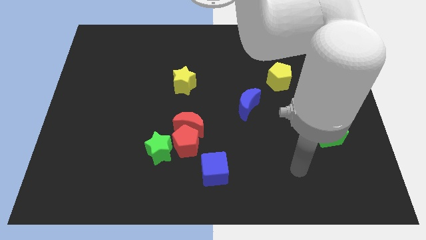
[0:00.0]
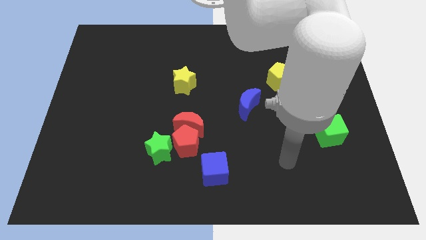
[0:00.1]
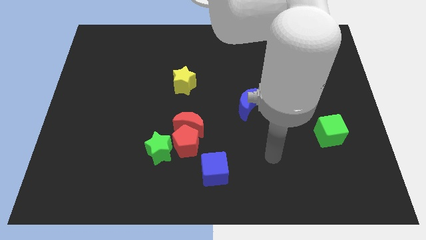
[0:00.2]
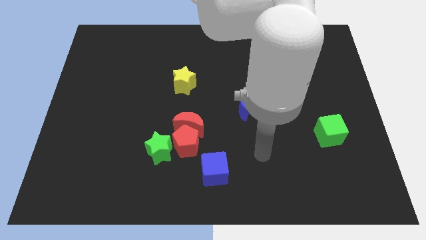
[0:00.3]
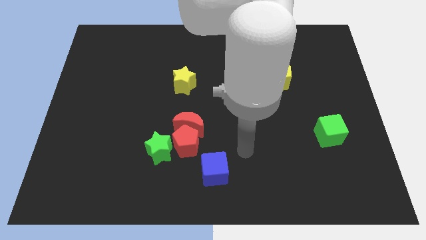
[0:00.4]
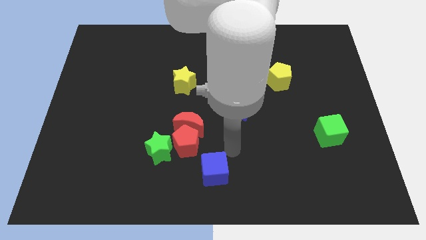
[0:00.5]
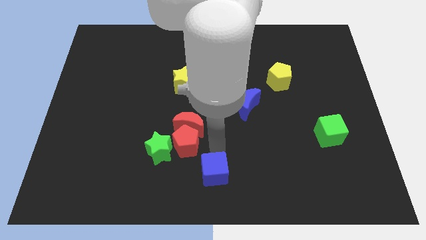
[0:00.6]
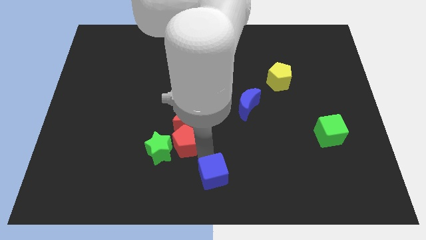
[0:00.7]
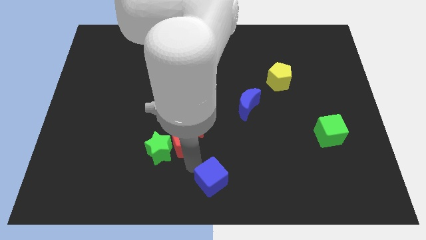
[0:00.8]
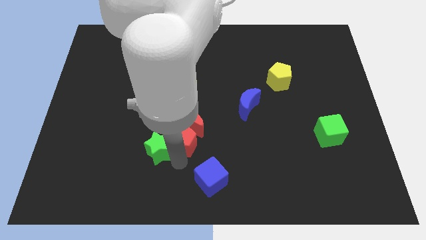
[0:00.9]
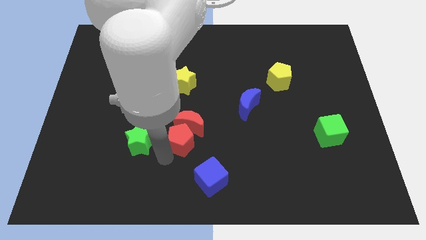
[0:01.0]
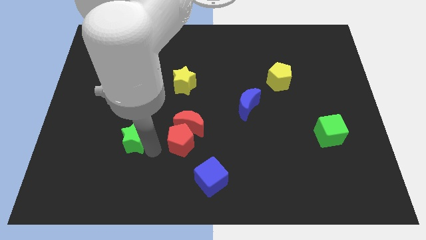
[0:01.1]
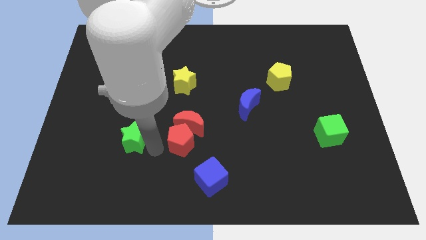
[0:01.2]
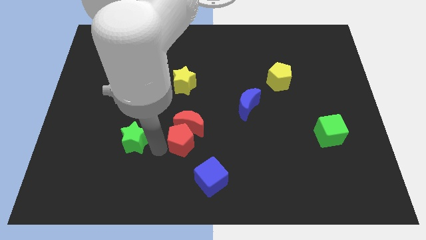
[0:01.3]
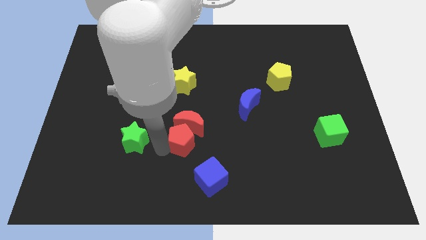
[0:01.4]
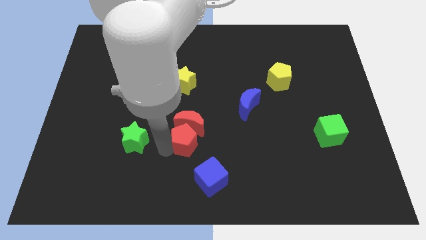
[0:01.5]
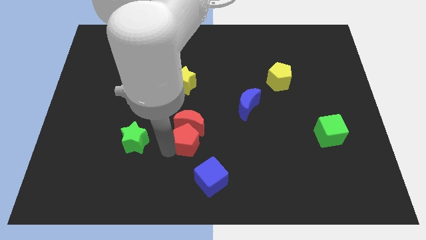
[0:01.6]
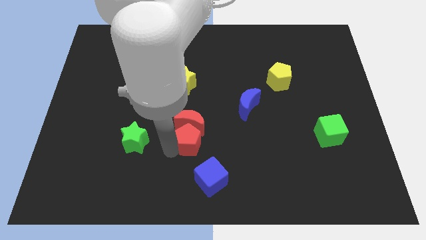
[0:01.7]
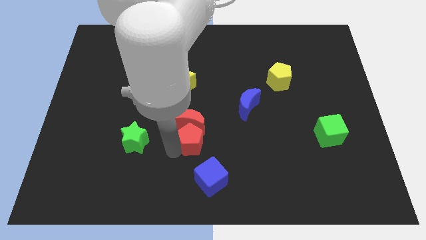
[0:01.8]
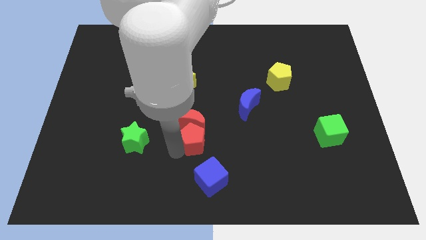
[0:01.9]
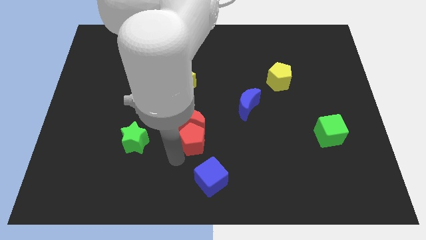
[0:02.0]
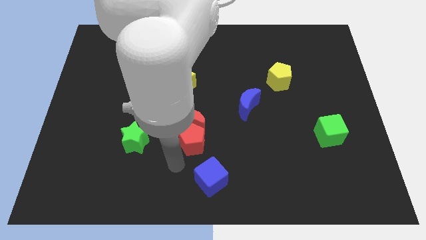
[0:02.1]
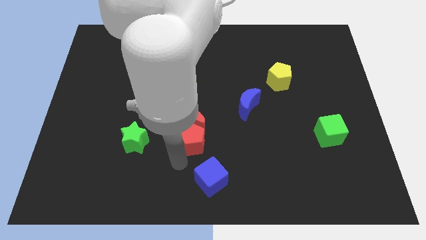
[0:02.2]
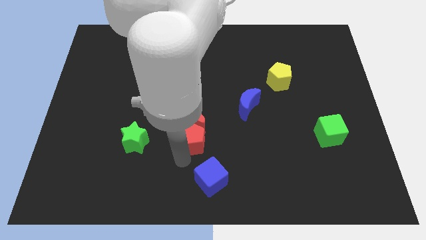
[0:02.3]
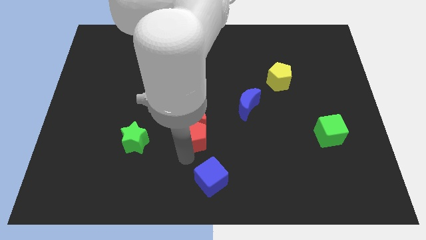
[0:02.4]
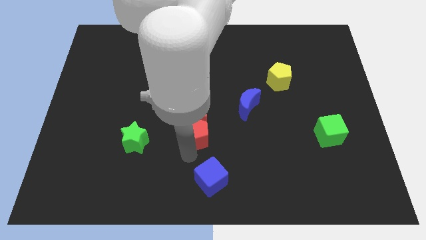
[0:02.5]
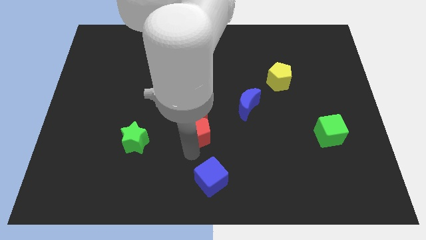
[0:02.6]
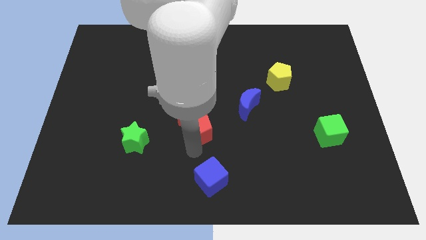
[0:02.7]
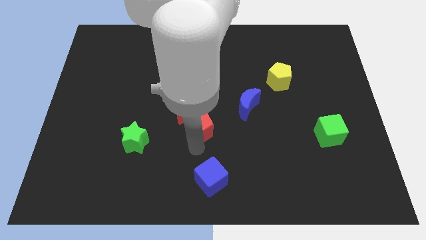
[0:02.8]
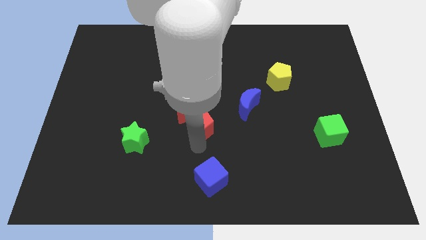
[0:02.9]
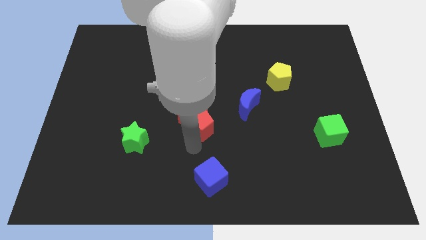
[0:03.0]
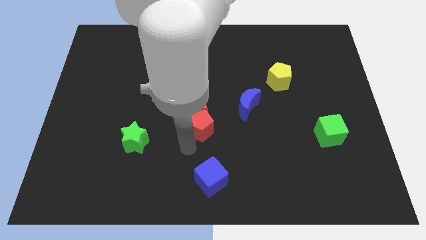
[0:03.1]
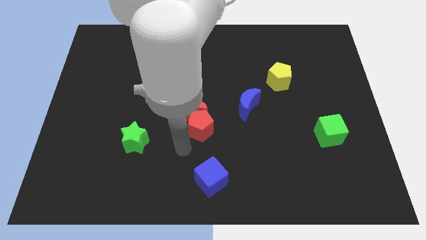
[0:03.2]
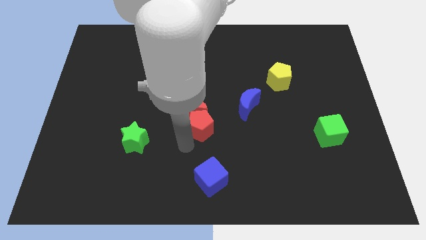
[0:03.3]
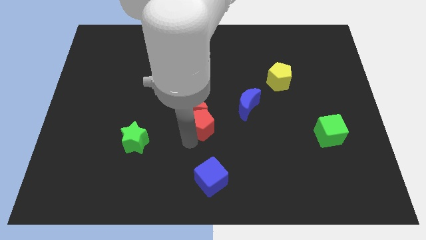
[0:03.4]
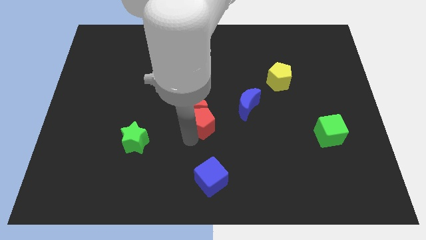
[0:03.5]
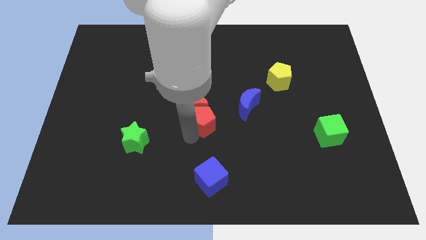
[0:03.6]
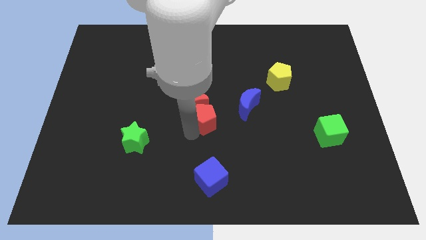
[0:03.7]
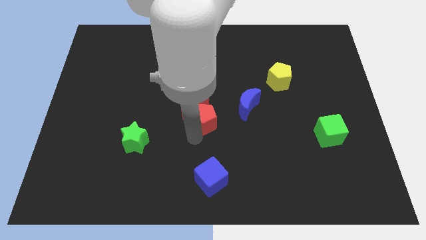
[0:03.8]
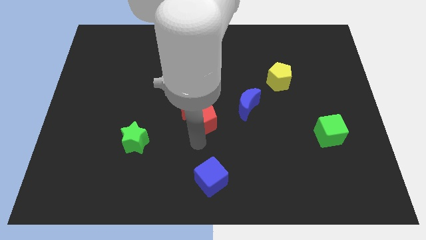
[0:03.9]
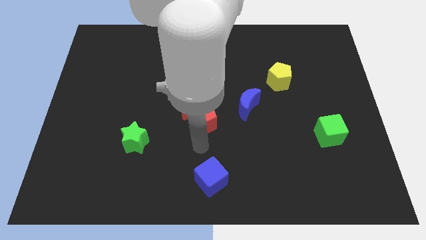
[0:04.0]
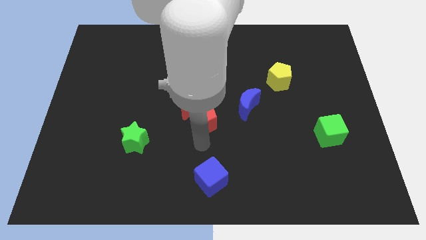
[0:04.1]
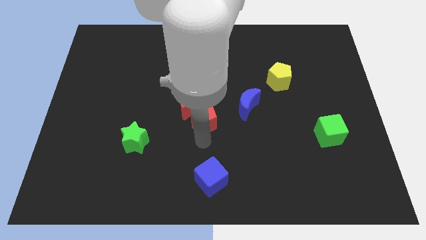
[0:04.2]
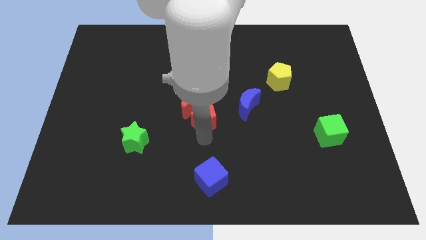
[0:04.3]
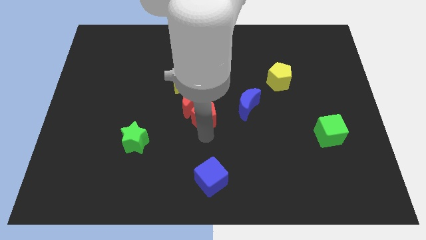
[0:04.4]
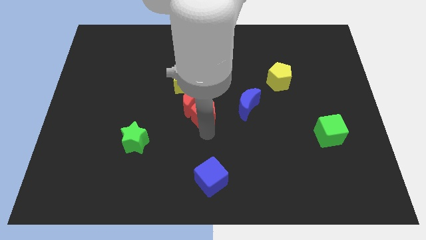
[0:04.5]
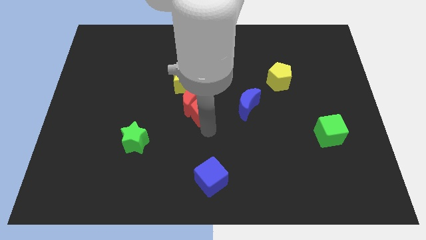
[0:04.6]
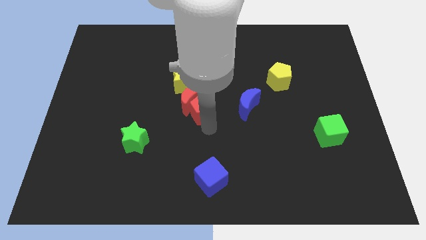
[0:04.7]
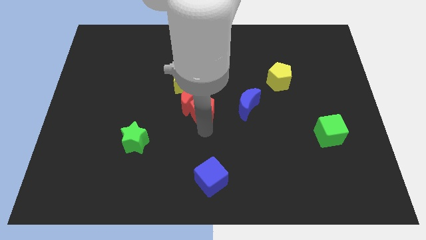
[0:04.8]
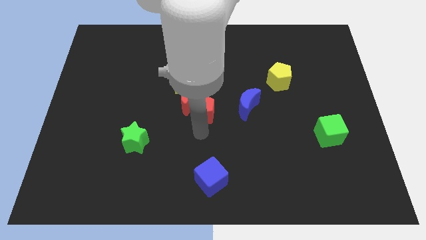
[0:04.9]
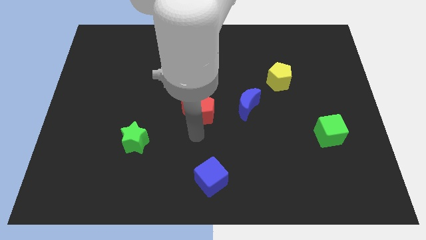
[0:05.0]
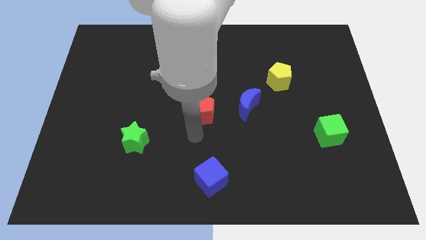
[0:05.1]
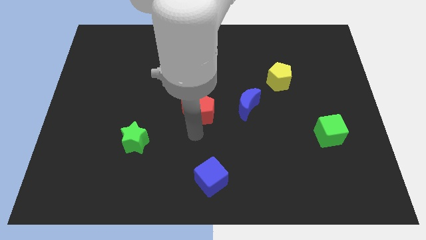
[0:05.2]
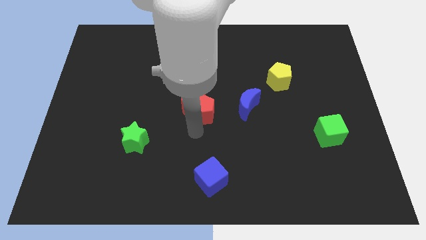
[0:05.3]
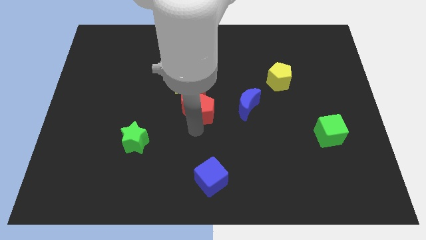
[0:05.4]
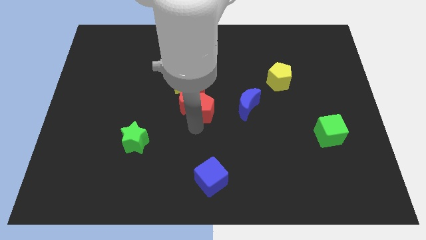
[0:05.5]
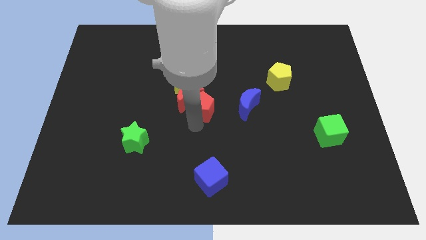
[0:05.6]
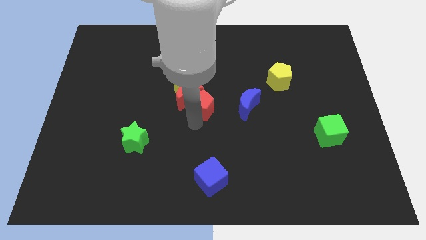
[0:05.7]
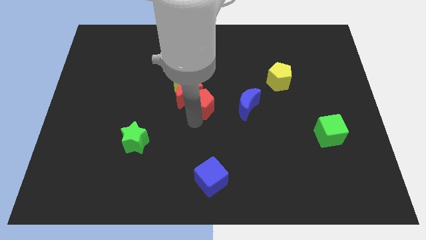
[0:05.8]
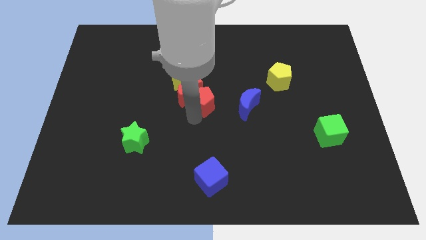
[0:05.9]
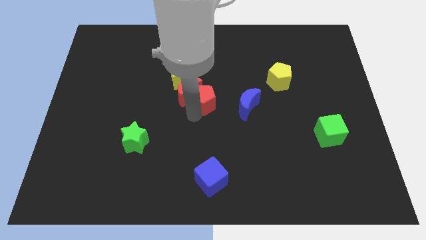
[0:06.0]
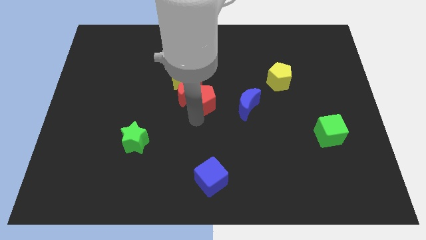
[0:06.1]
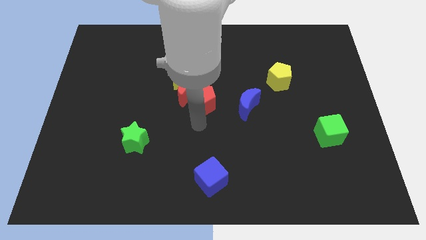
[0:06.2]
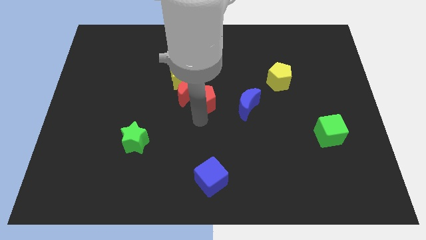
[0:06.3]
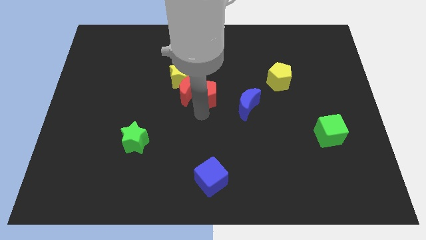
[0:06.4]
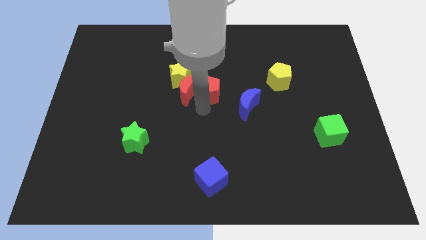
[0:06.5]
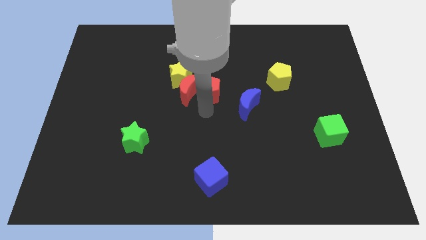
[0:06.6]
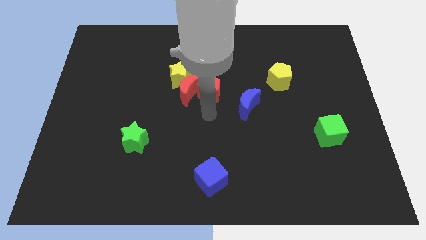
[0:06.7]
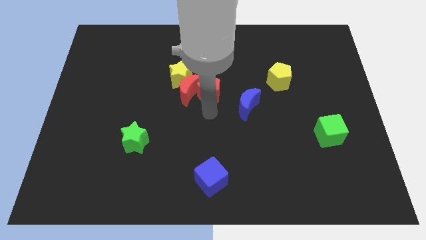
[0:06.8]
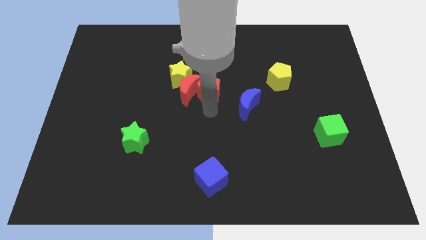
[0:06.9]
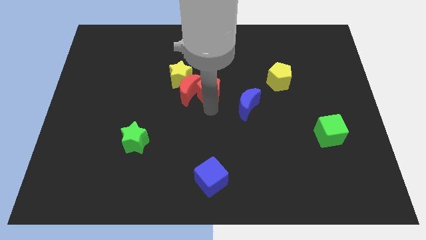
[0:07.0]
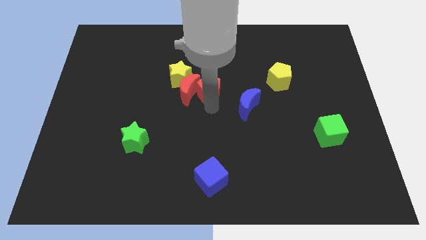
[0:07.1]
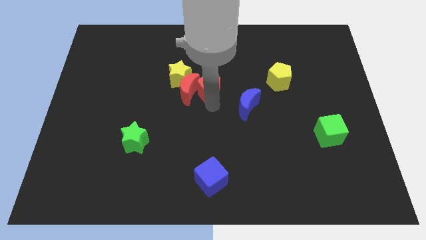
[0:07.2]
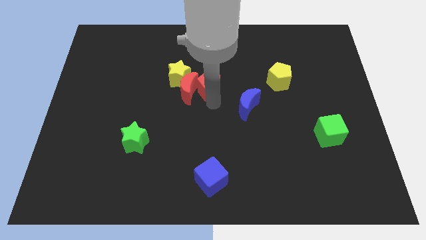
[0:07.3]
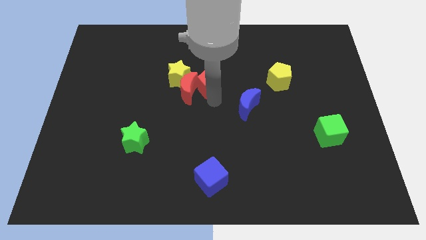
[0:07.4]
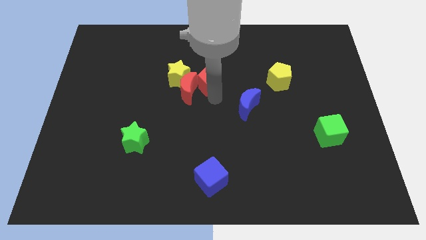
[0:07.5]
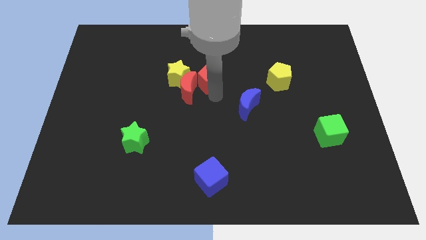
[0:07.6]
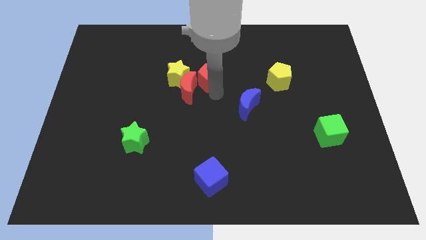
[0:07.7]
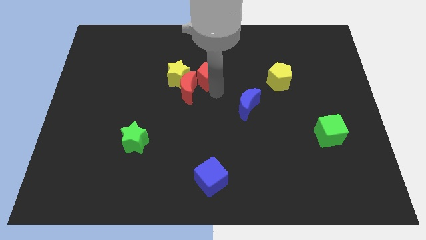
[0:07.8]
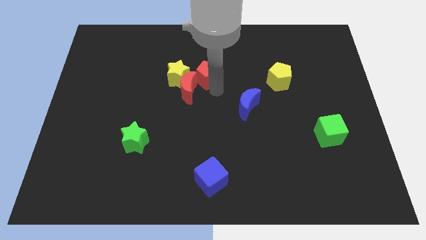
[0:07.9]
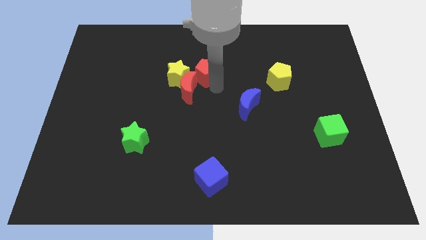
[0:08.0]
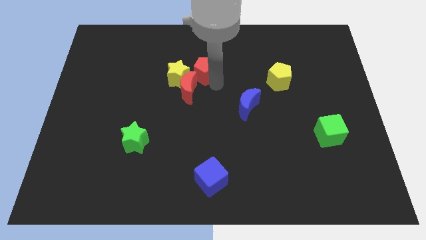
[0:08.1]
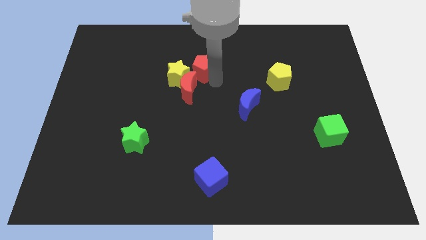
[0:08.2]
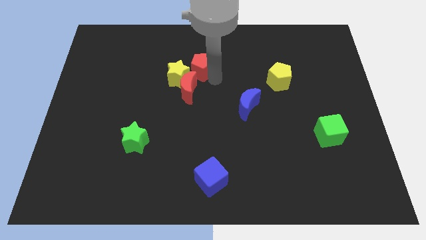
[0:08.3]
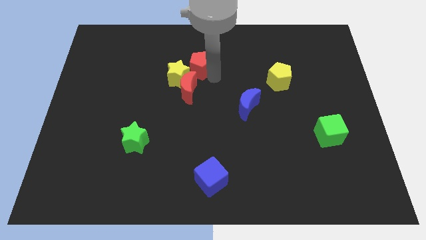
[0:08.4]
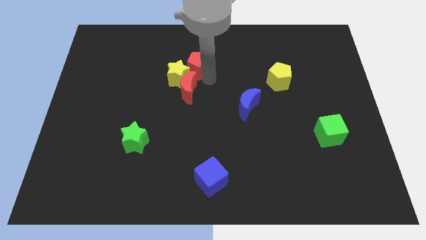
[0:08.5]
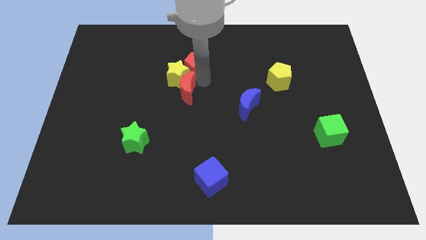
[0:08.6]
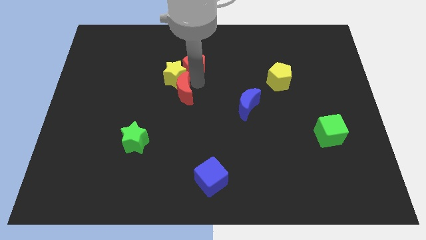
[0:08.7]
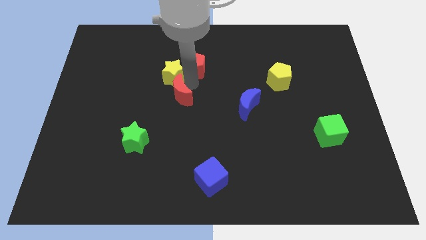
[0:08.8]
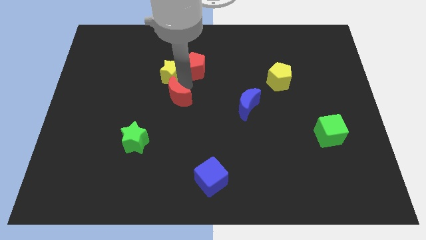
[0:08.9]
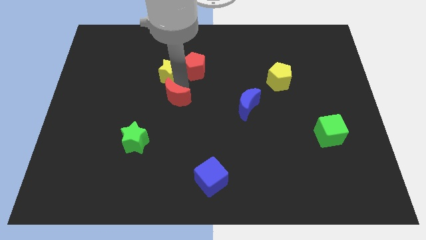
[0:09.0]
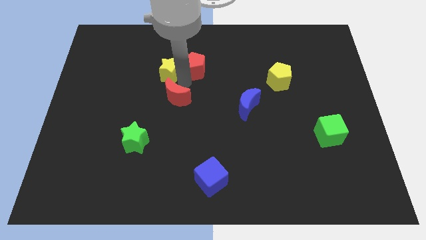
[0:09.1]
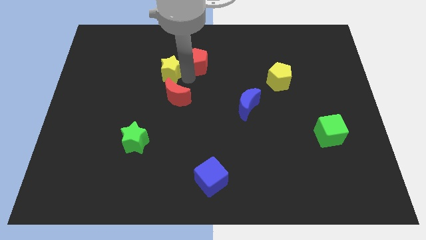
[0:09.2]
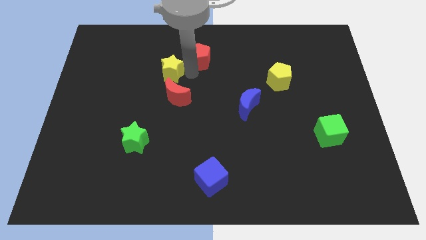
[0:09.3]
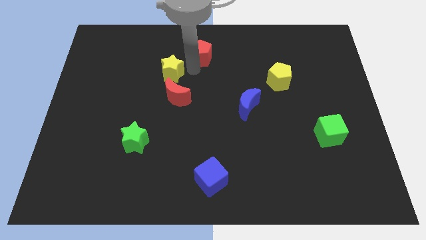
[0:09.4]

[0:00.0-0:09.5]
move the red pentagon to the towards your base
